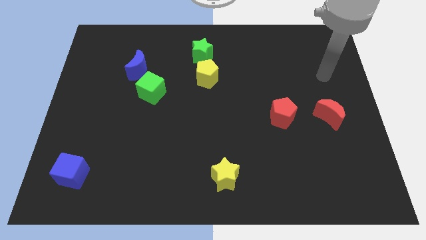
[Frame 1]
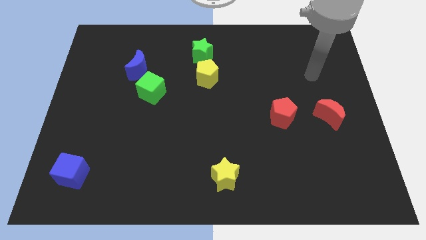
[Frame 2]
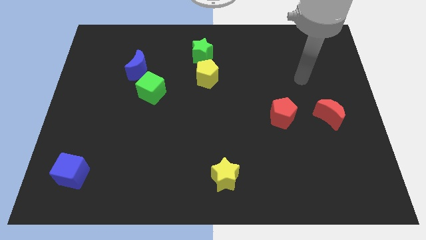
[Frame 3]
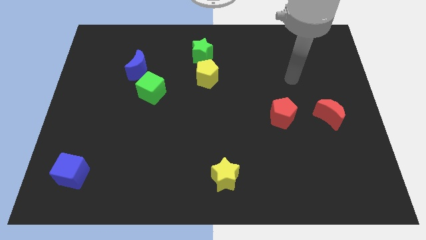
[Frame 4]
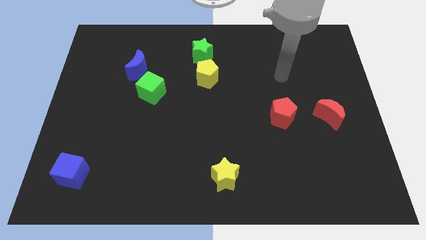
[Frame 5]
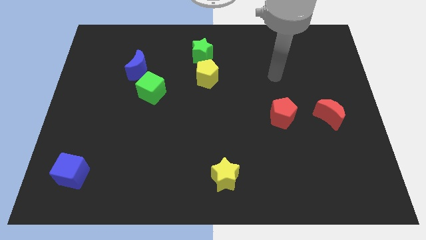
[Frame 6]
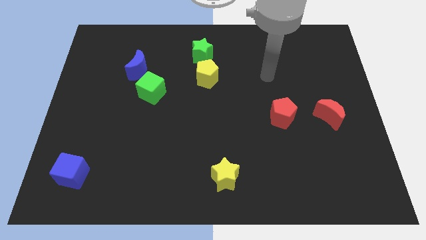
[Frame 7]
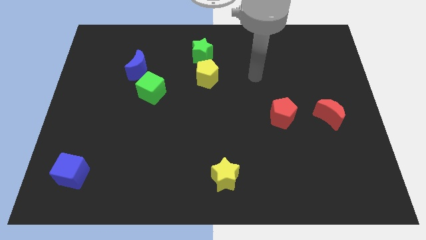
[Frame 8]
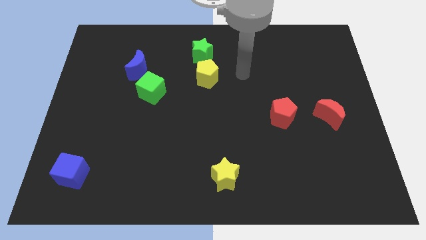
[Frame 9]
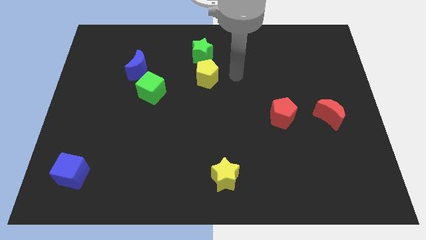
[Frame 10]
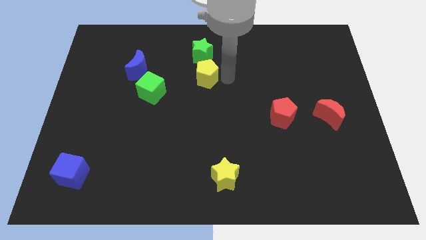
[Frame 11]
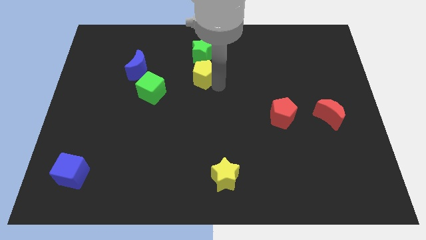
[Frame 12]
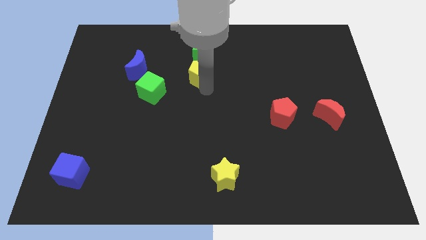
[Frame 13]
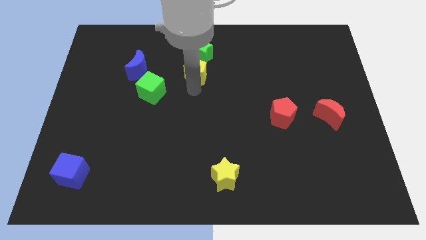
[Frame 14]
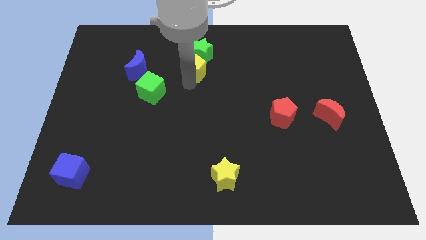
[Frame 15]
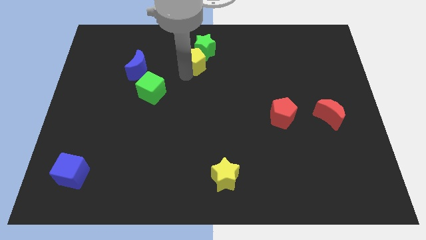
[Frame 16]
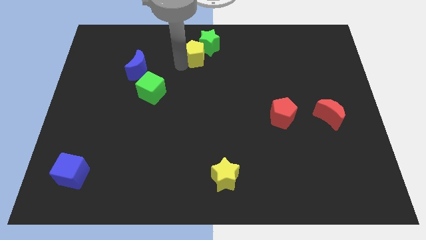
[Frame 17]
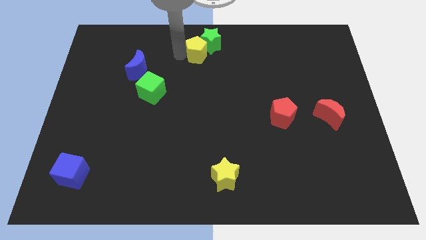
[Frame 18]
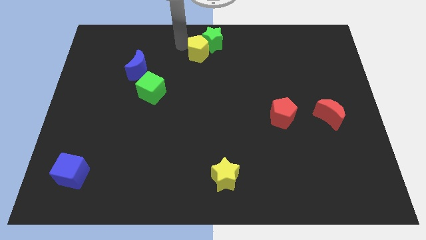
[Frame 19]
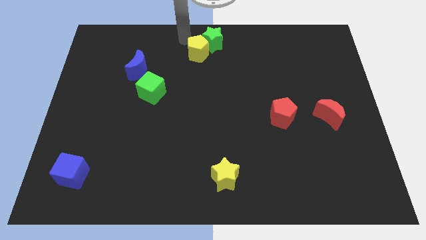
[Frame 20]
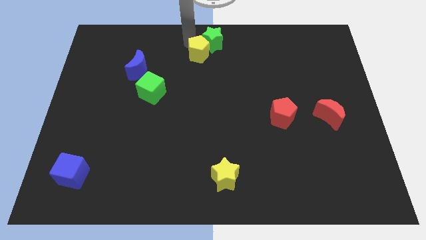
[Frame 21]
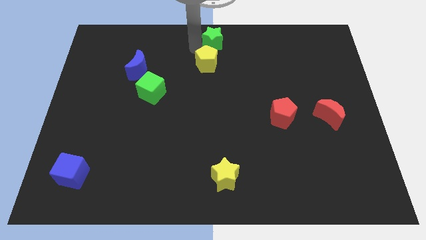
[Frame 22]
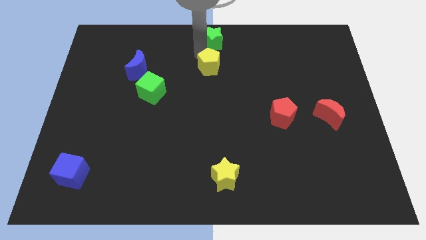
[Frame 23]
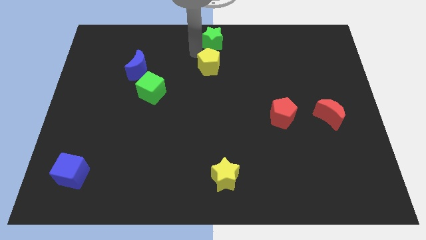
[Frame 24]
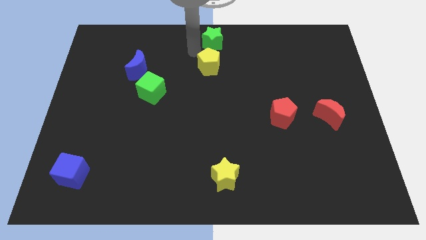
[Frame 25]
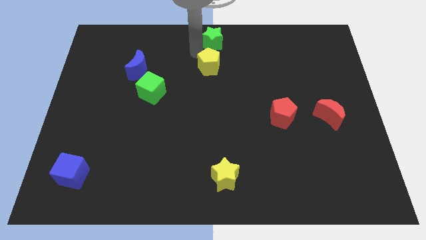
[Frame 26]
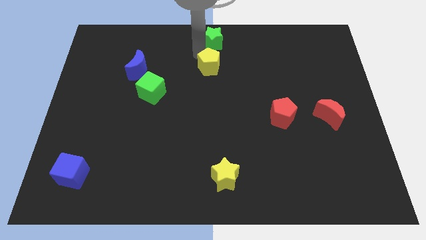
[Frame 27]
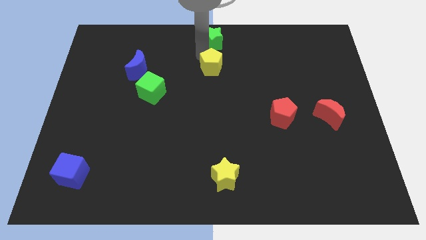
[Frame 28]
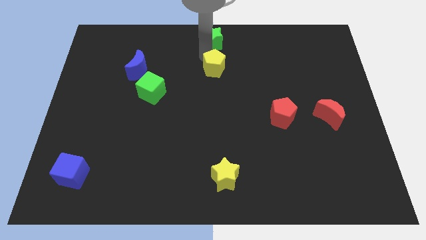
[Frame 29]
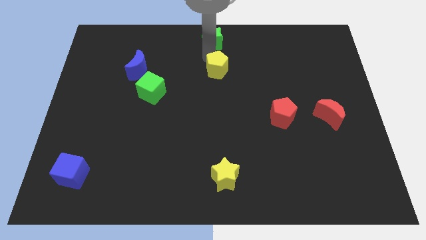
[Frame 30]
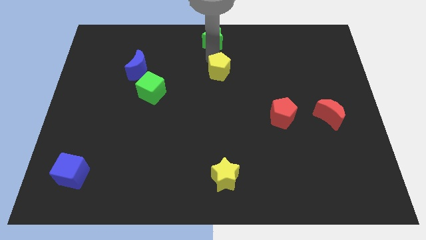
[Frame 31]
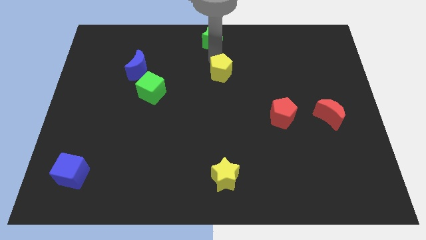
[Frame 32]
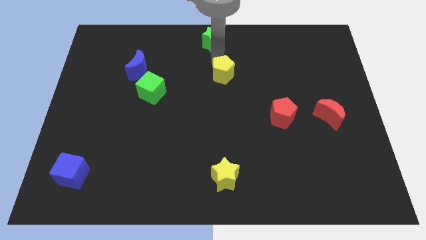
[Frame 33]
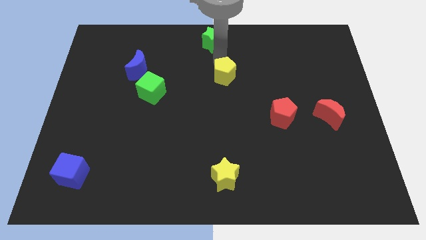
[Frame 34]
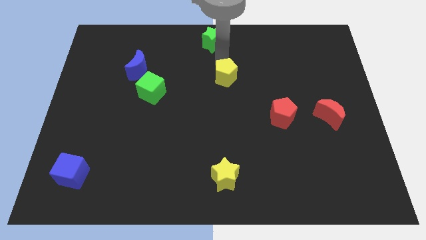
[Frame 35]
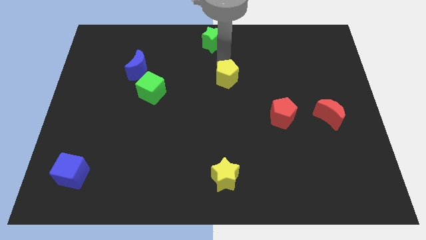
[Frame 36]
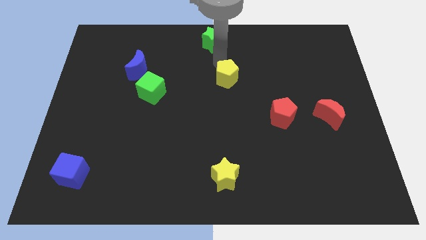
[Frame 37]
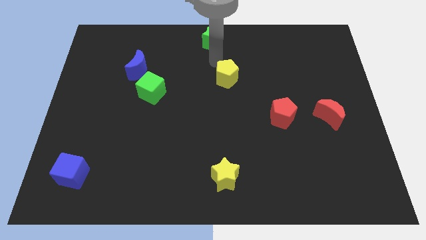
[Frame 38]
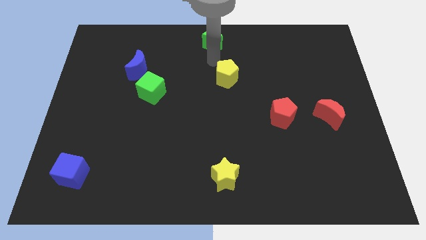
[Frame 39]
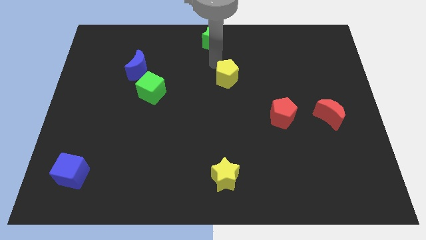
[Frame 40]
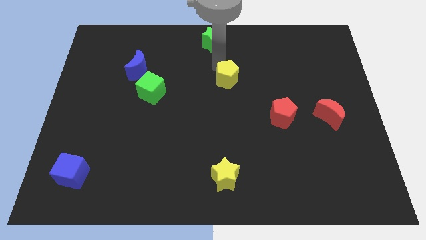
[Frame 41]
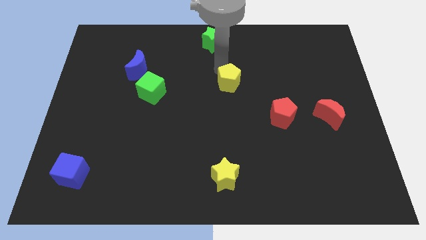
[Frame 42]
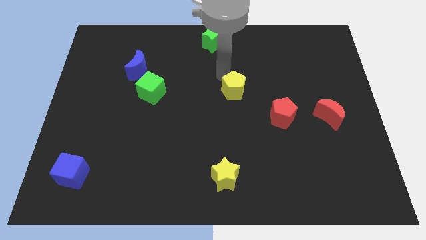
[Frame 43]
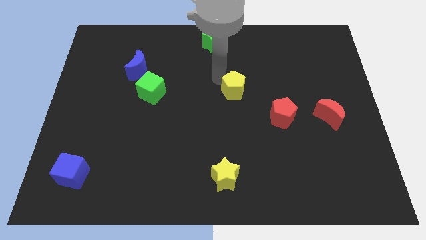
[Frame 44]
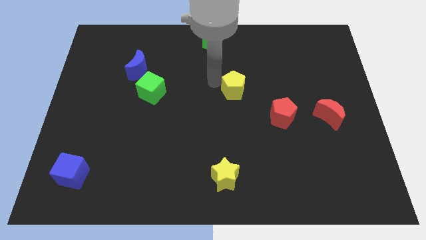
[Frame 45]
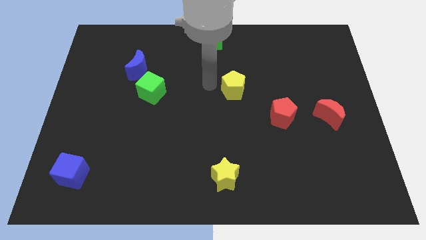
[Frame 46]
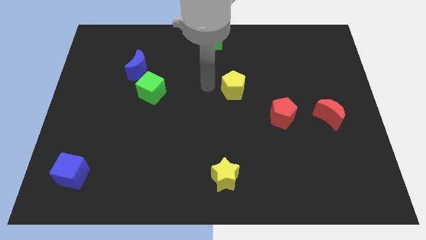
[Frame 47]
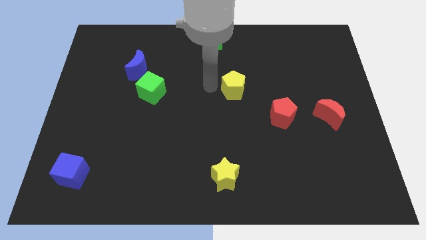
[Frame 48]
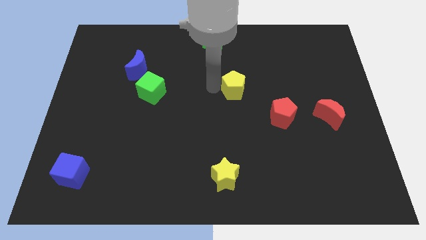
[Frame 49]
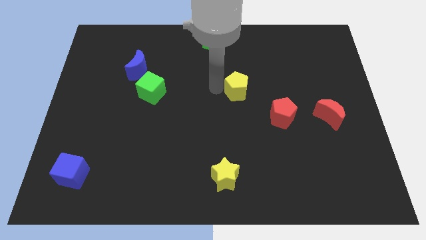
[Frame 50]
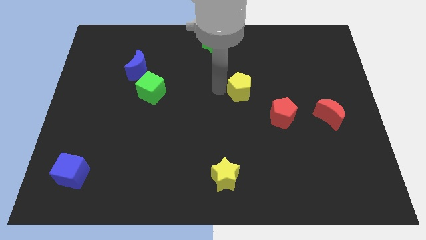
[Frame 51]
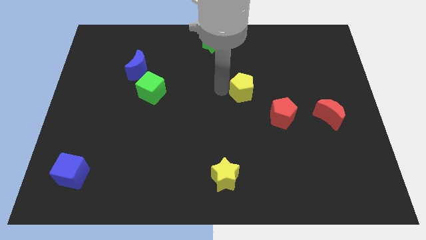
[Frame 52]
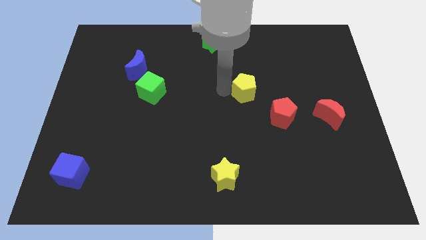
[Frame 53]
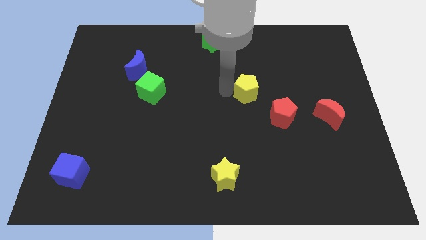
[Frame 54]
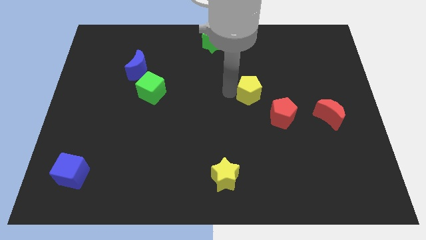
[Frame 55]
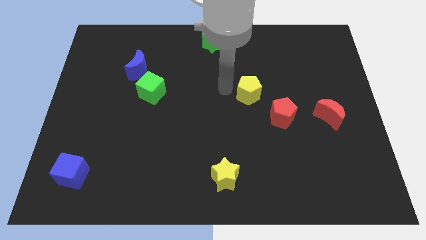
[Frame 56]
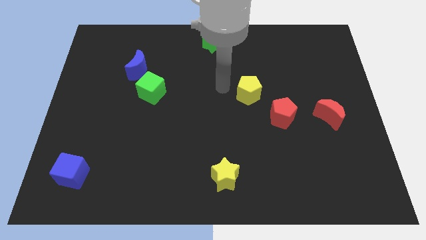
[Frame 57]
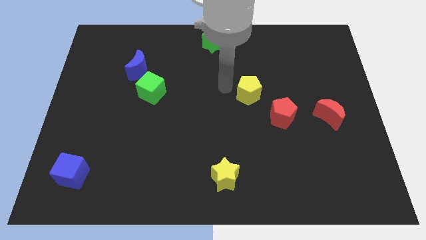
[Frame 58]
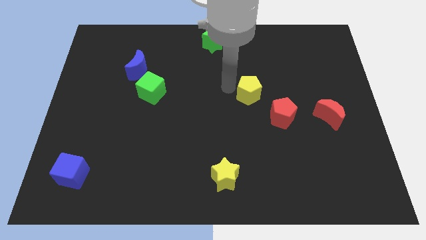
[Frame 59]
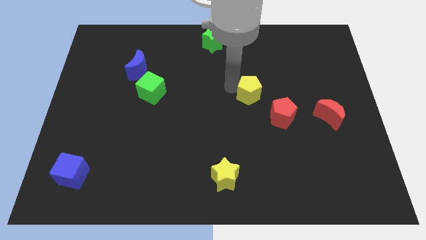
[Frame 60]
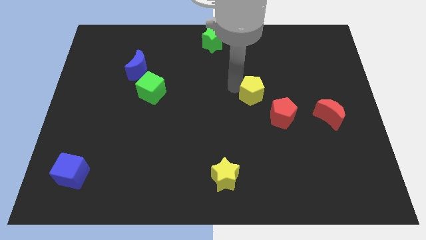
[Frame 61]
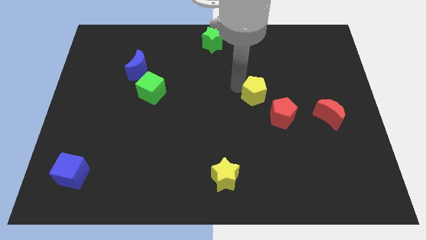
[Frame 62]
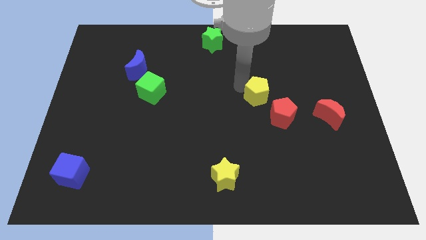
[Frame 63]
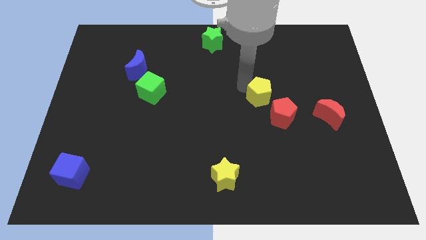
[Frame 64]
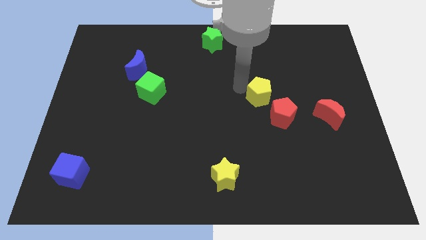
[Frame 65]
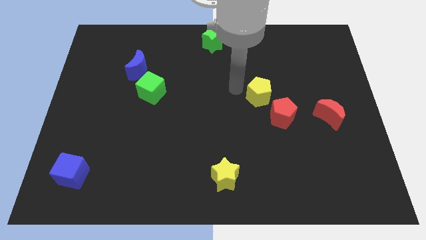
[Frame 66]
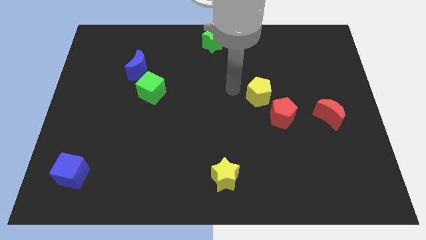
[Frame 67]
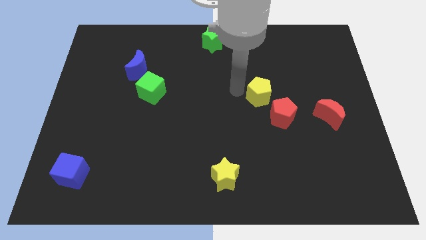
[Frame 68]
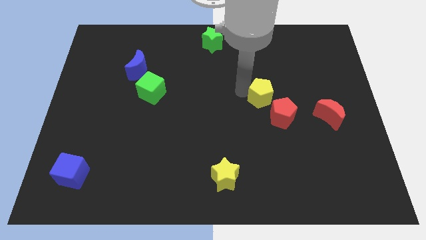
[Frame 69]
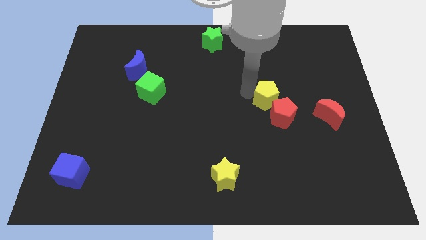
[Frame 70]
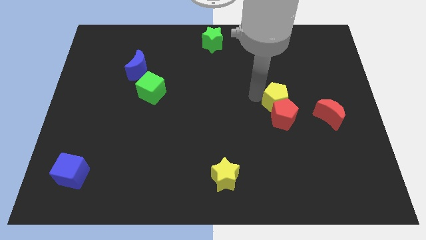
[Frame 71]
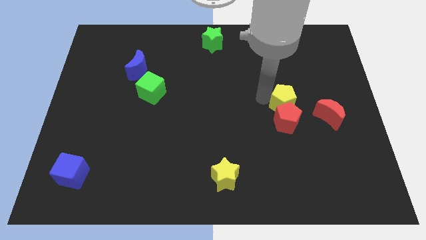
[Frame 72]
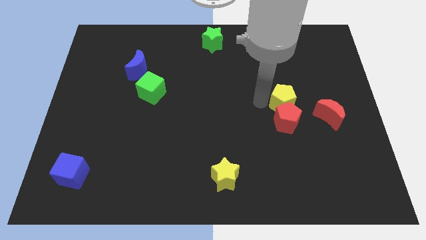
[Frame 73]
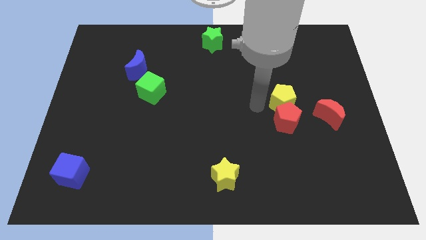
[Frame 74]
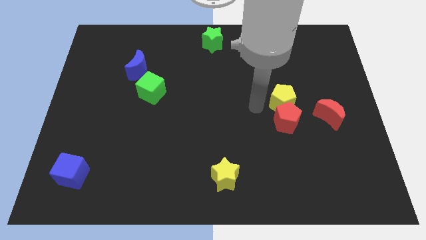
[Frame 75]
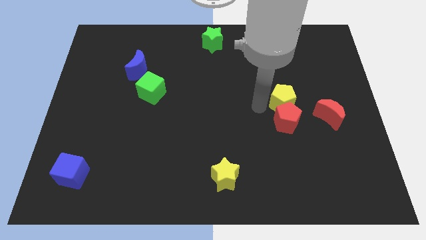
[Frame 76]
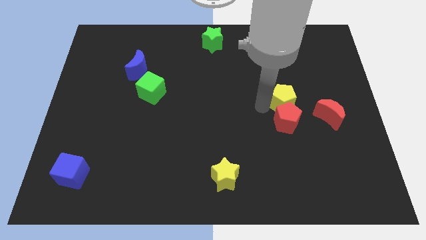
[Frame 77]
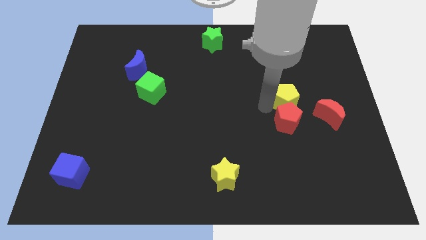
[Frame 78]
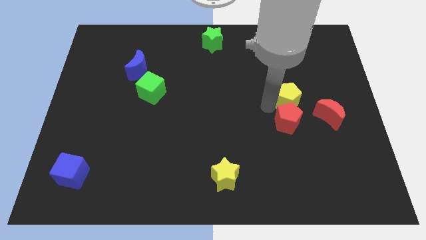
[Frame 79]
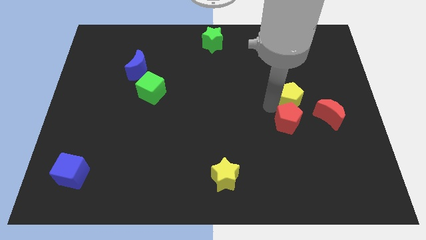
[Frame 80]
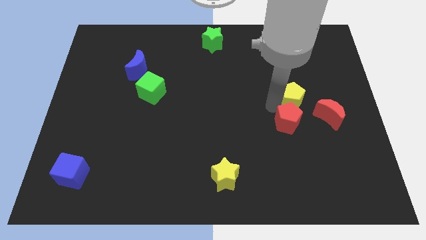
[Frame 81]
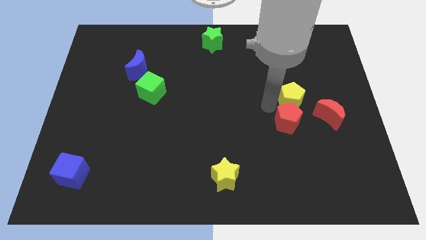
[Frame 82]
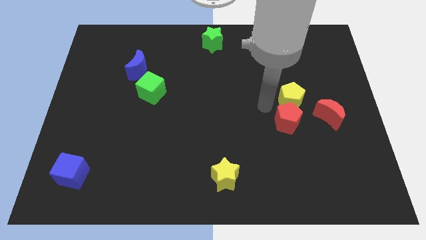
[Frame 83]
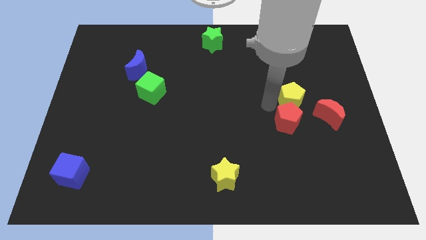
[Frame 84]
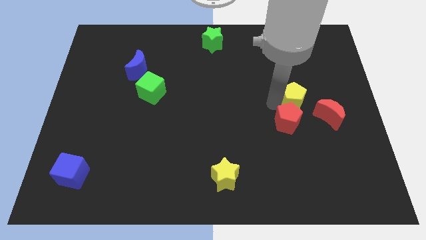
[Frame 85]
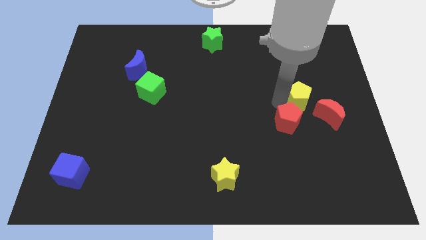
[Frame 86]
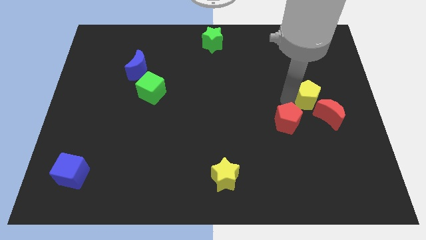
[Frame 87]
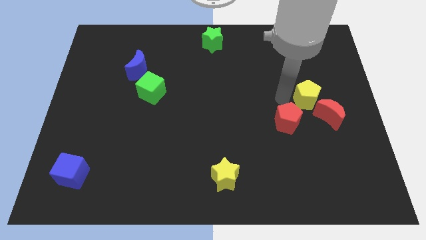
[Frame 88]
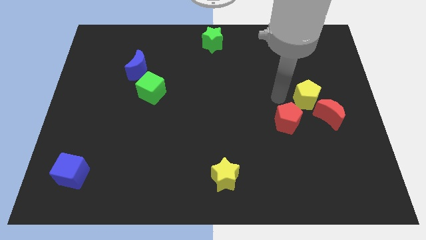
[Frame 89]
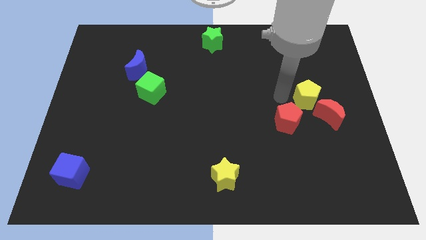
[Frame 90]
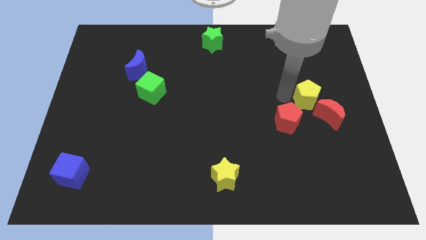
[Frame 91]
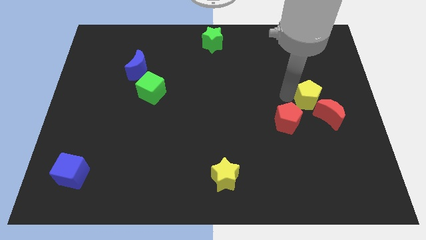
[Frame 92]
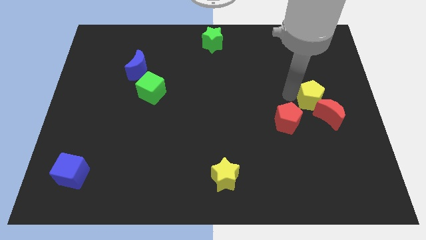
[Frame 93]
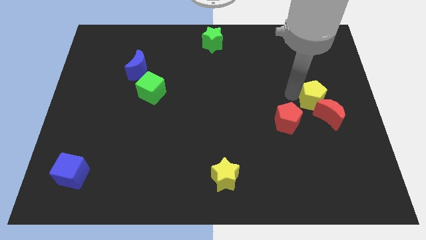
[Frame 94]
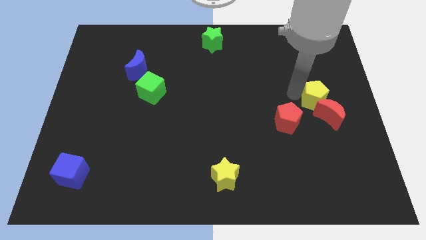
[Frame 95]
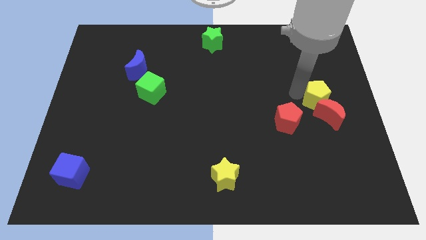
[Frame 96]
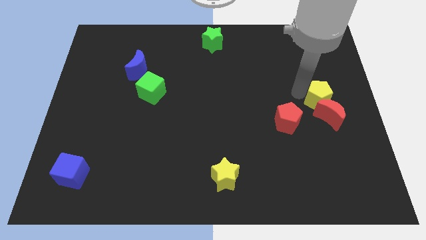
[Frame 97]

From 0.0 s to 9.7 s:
move the yellow pentagon to the right side
